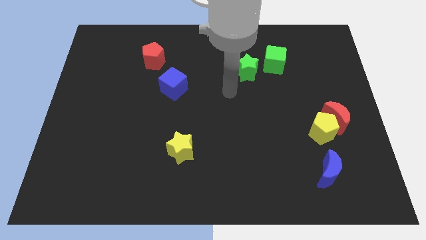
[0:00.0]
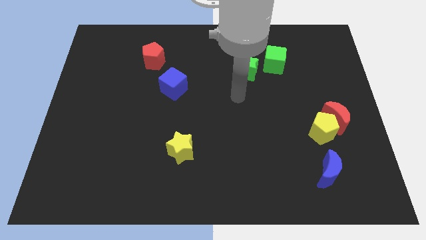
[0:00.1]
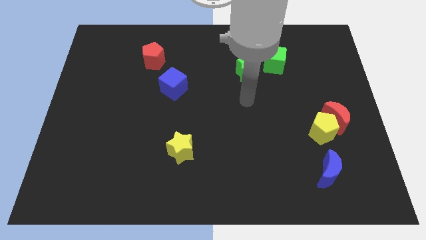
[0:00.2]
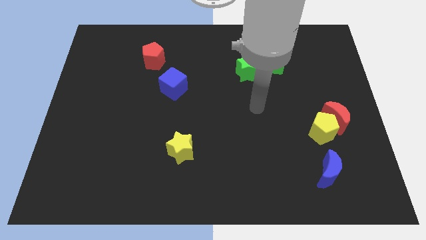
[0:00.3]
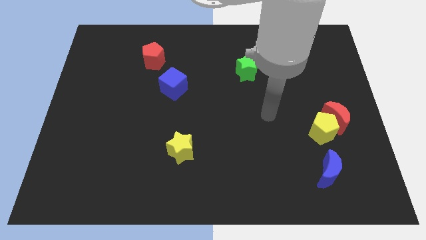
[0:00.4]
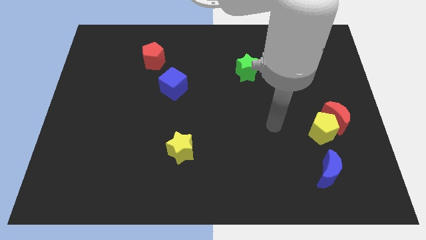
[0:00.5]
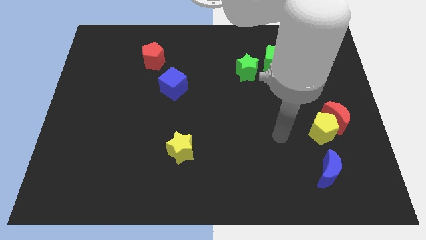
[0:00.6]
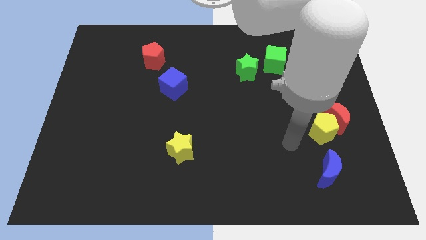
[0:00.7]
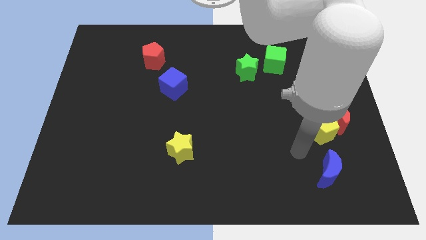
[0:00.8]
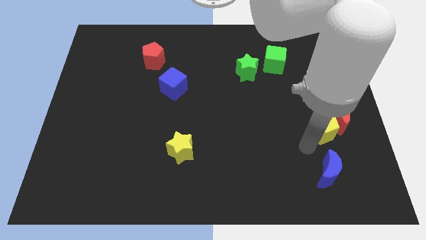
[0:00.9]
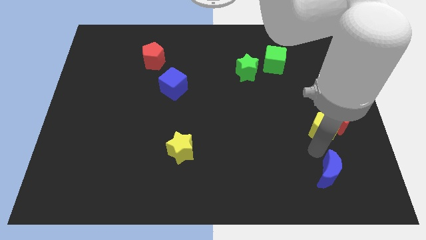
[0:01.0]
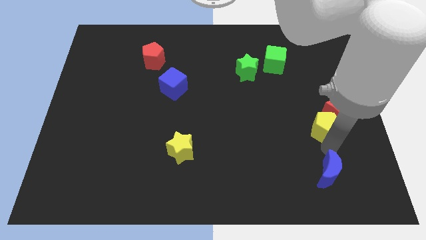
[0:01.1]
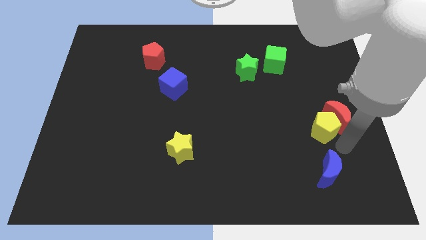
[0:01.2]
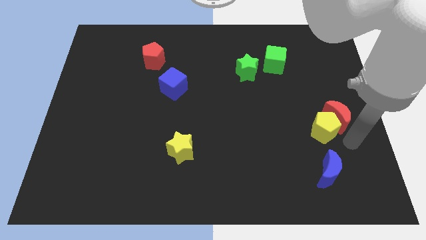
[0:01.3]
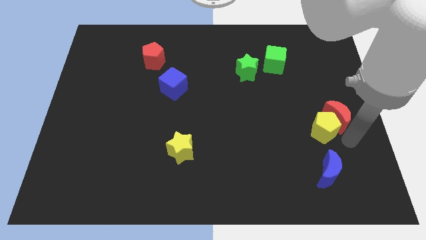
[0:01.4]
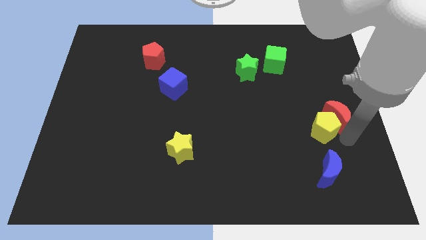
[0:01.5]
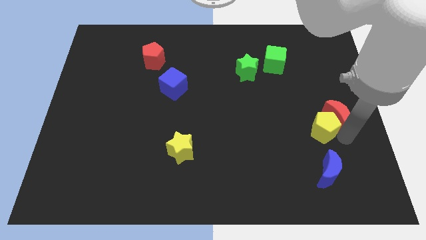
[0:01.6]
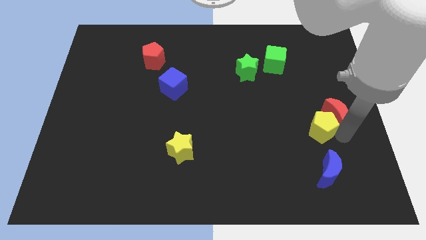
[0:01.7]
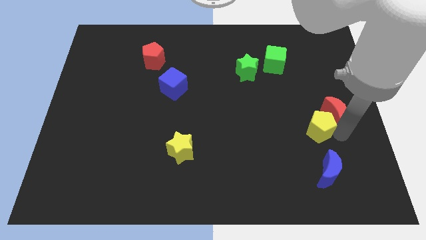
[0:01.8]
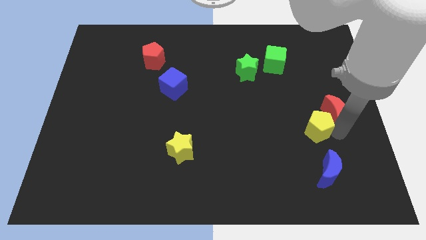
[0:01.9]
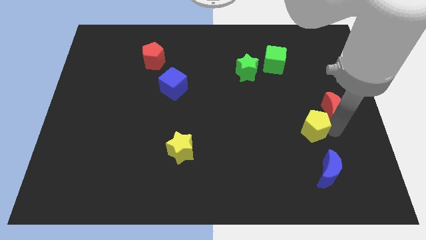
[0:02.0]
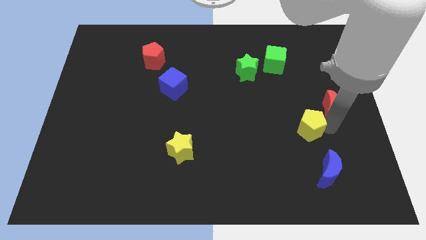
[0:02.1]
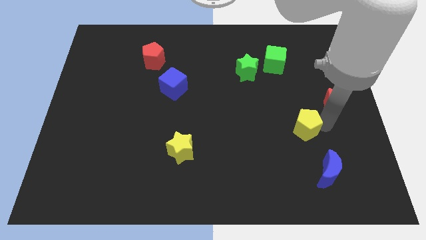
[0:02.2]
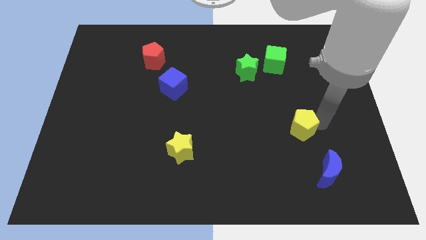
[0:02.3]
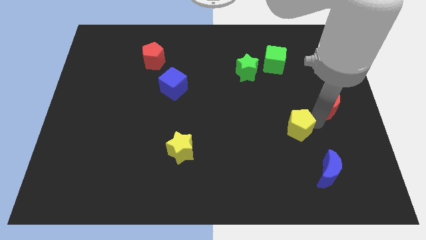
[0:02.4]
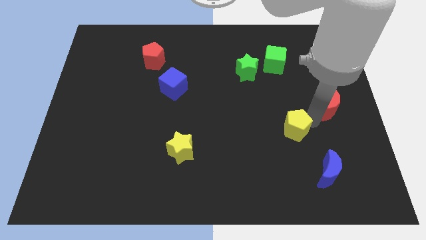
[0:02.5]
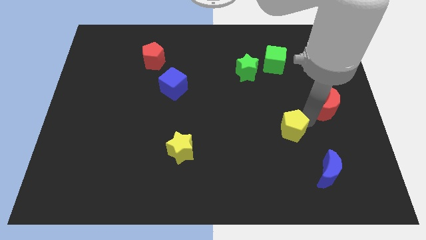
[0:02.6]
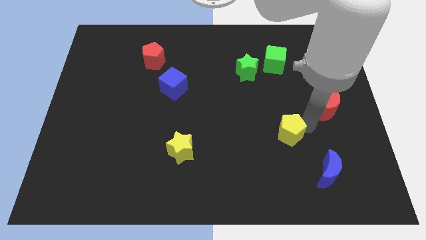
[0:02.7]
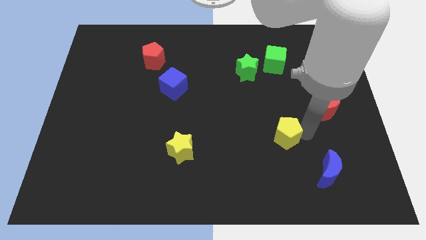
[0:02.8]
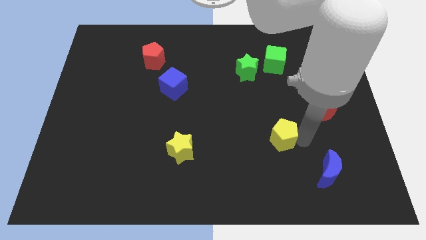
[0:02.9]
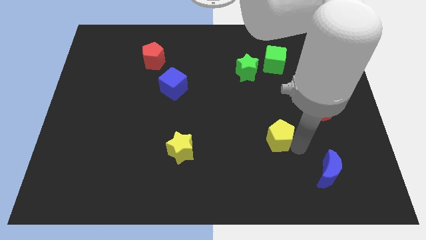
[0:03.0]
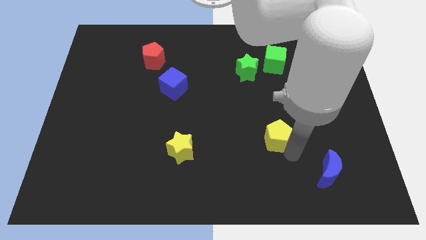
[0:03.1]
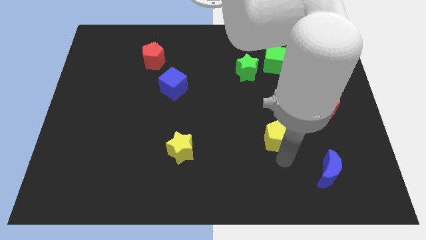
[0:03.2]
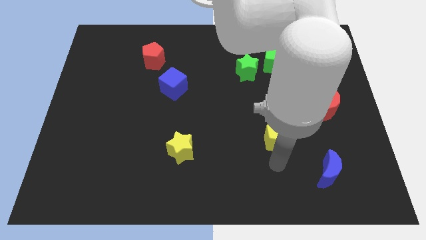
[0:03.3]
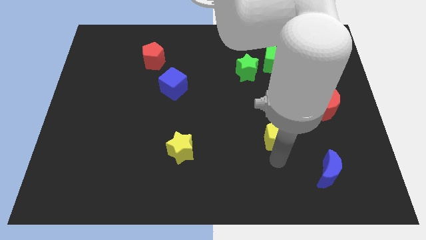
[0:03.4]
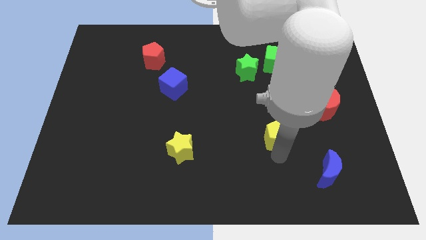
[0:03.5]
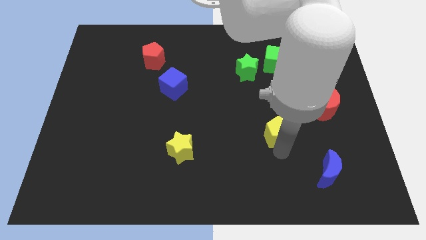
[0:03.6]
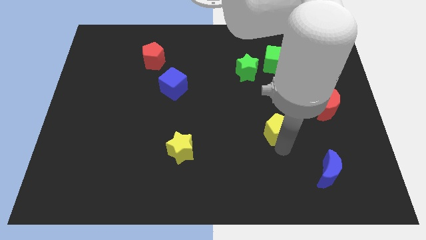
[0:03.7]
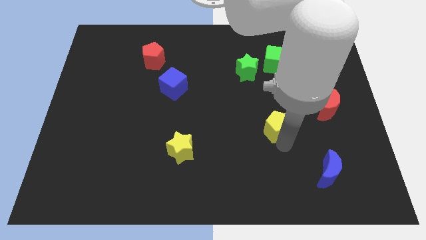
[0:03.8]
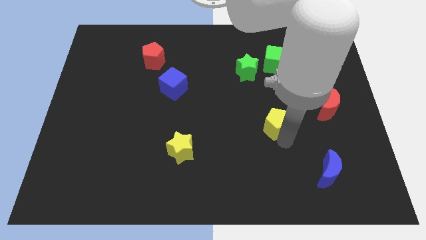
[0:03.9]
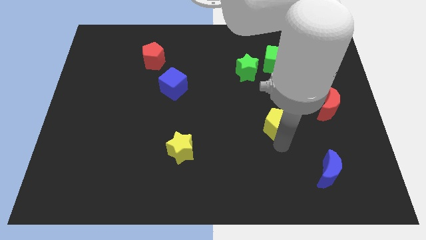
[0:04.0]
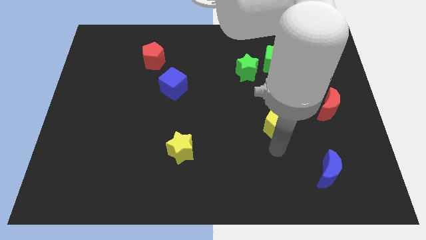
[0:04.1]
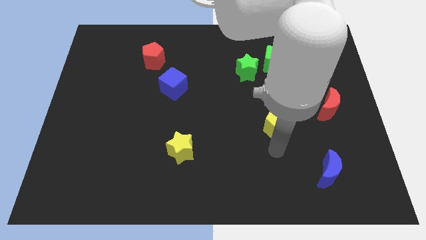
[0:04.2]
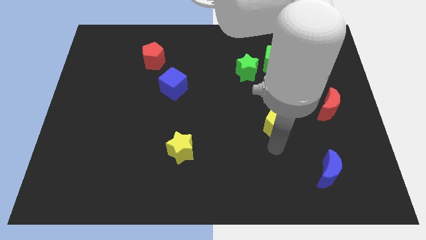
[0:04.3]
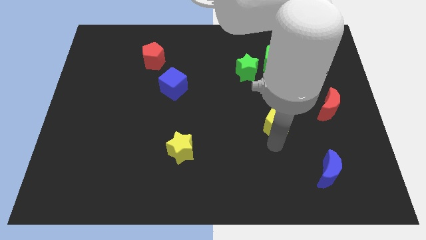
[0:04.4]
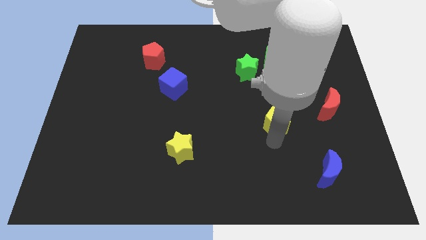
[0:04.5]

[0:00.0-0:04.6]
move the yellow pentagon a little bit diagonally upwards and to the left

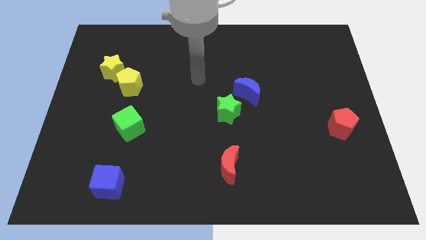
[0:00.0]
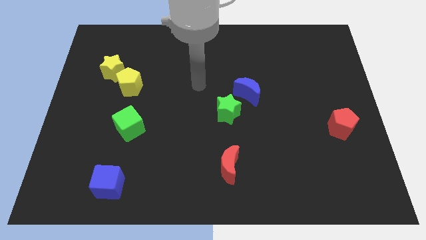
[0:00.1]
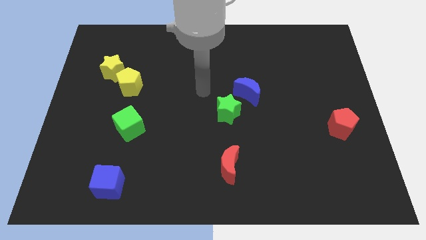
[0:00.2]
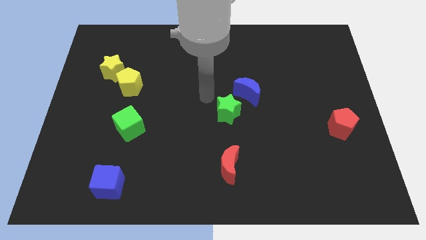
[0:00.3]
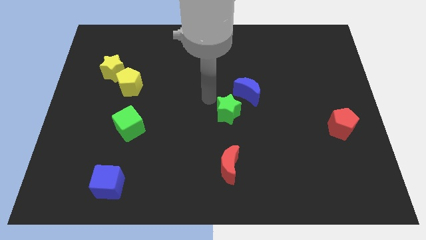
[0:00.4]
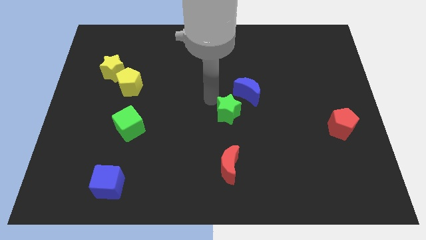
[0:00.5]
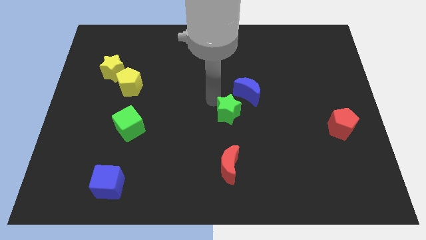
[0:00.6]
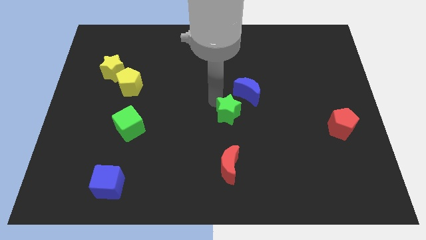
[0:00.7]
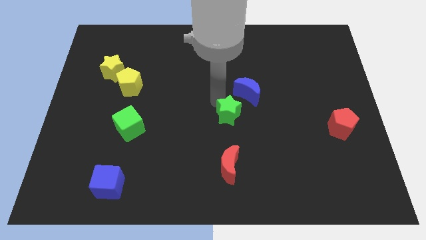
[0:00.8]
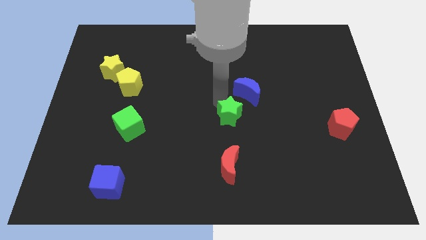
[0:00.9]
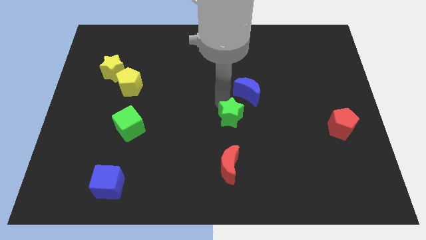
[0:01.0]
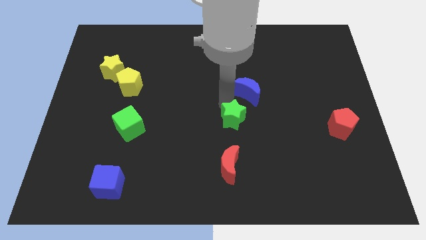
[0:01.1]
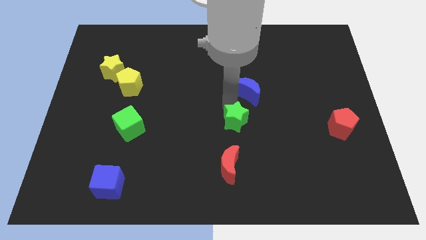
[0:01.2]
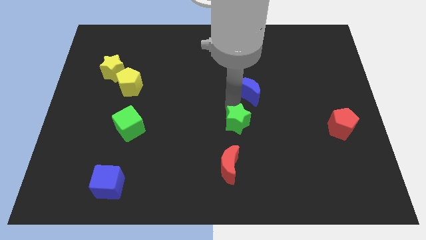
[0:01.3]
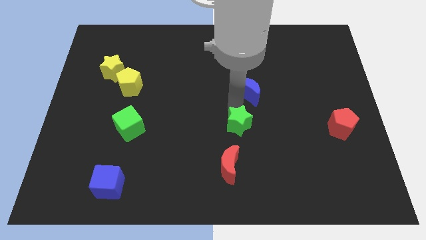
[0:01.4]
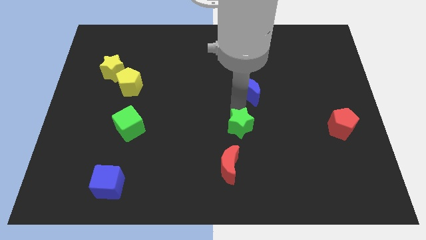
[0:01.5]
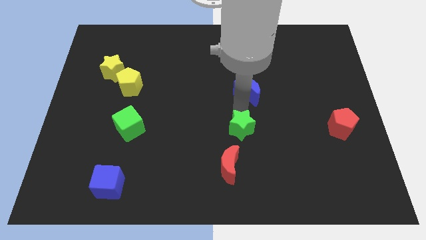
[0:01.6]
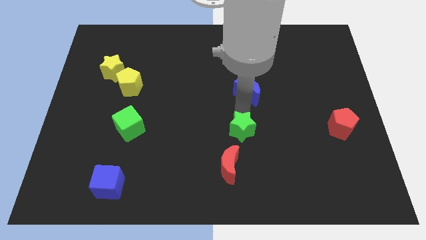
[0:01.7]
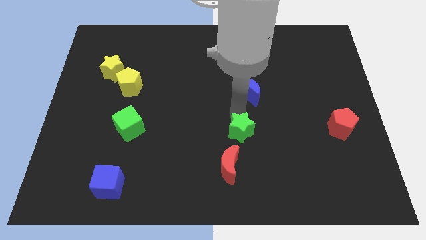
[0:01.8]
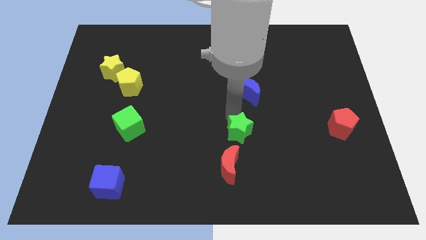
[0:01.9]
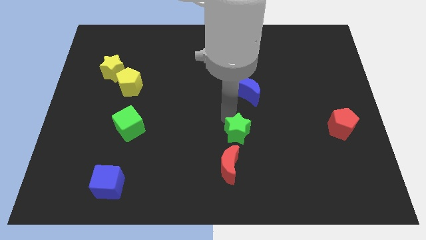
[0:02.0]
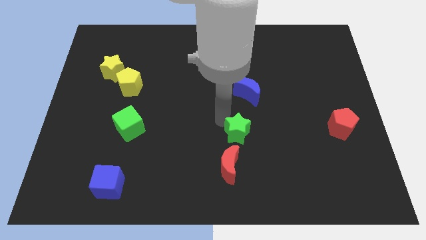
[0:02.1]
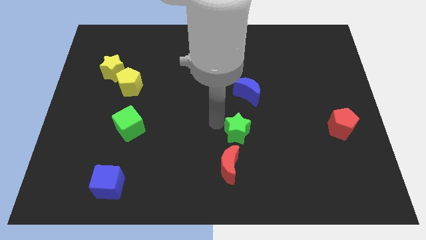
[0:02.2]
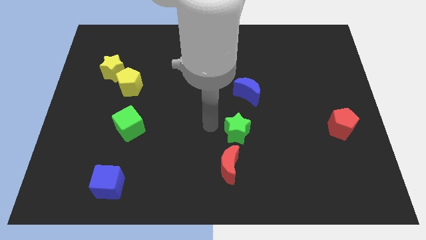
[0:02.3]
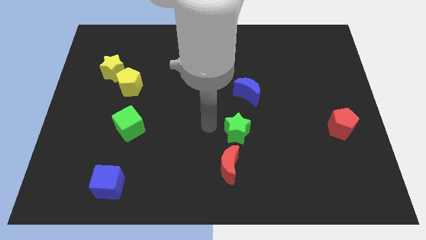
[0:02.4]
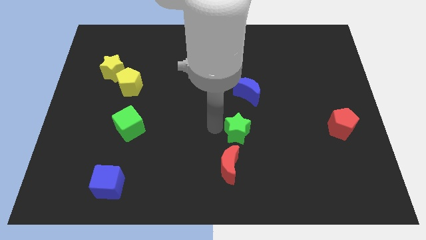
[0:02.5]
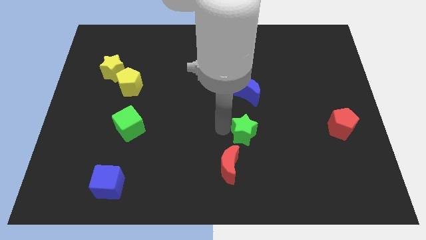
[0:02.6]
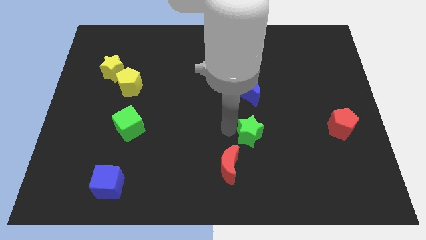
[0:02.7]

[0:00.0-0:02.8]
move the green star a bit downwards and to the right

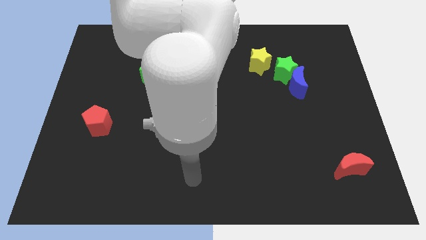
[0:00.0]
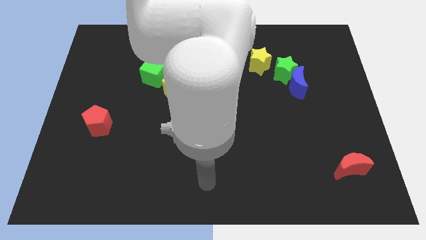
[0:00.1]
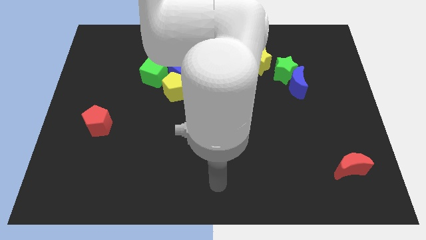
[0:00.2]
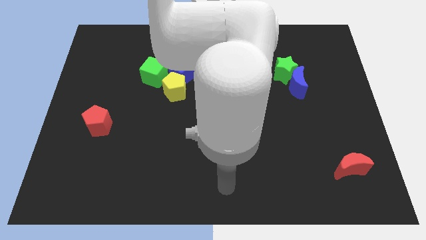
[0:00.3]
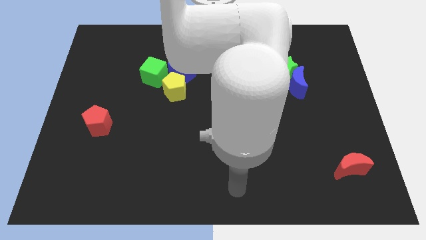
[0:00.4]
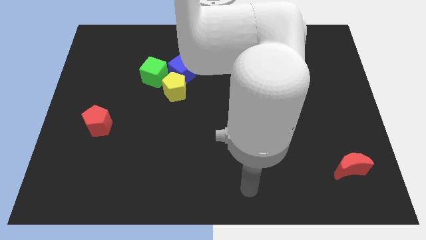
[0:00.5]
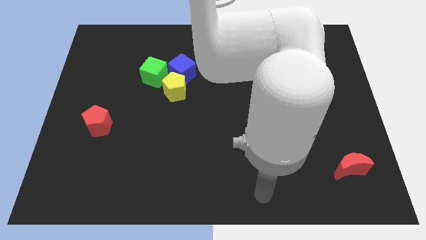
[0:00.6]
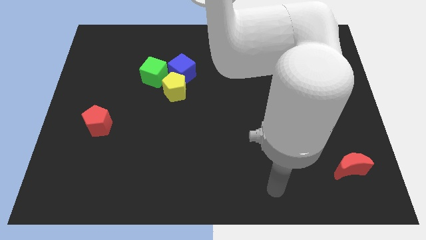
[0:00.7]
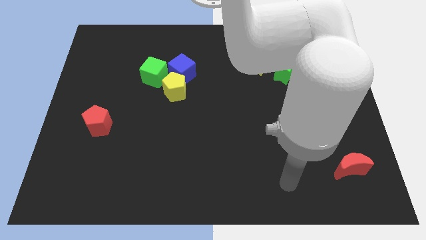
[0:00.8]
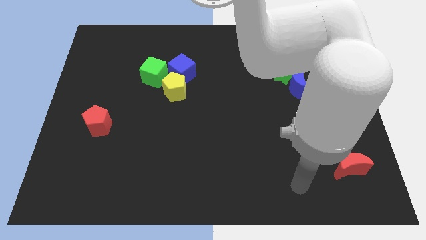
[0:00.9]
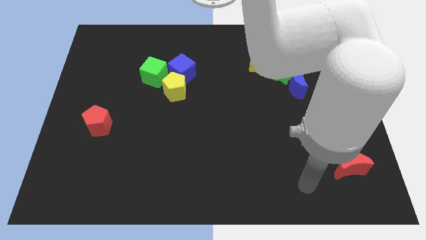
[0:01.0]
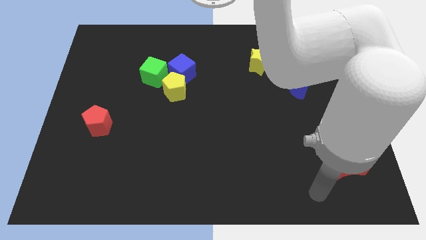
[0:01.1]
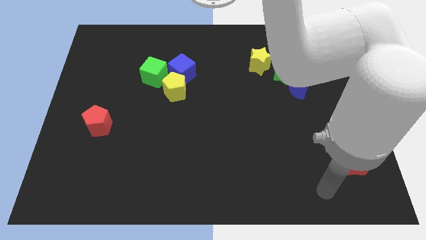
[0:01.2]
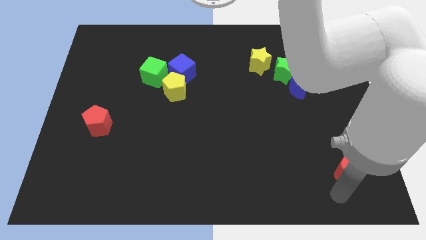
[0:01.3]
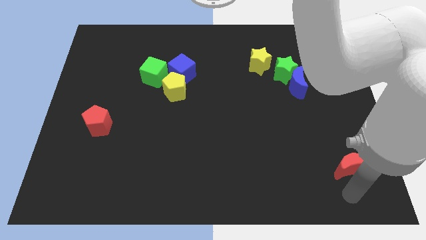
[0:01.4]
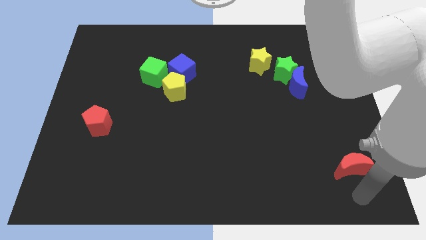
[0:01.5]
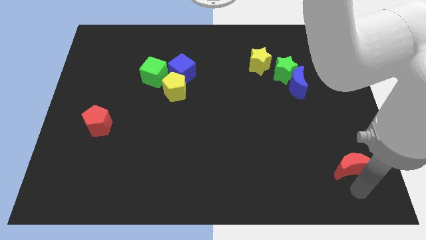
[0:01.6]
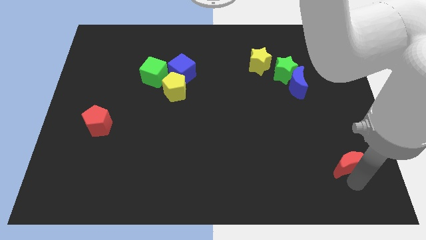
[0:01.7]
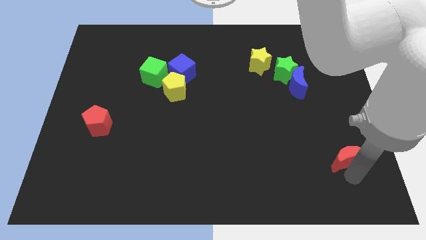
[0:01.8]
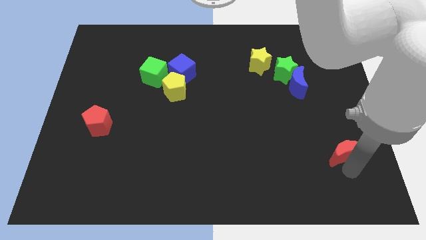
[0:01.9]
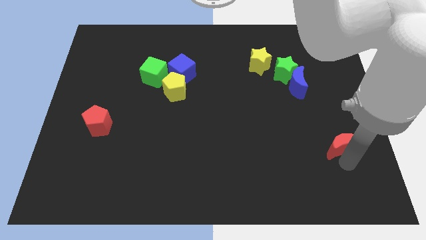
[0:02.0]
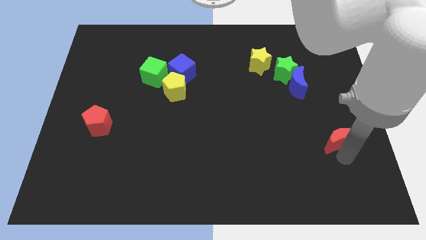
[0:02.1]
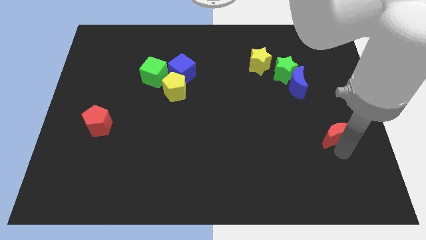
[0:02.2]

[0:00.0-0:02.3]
slide the red moon somewhat upwards
